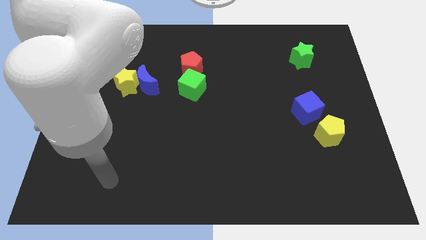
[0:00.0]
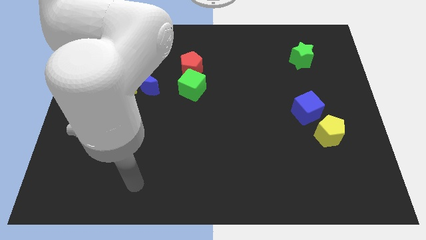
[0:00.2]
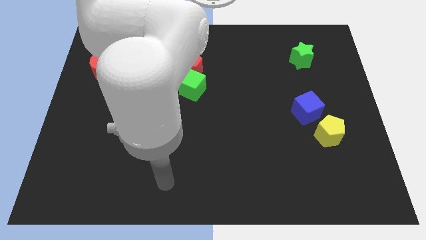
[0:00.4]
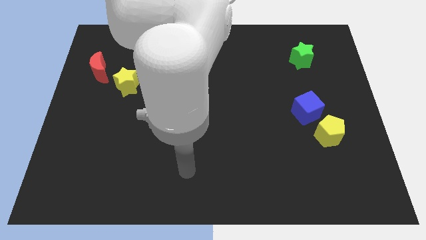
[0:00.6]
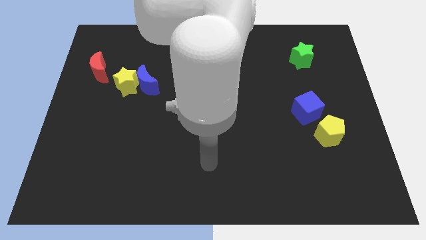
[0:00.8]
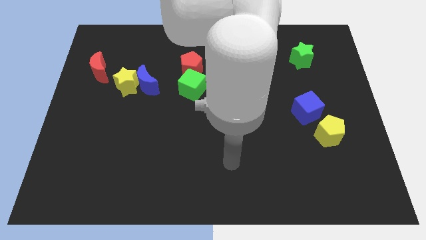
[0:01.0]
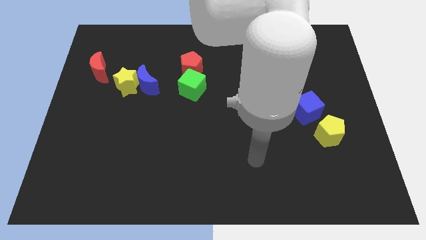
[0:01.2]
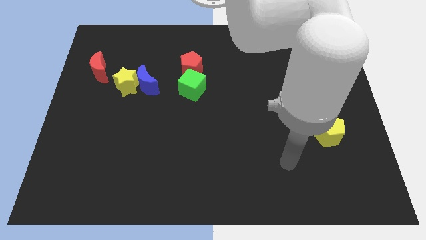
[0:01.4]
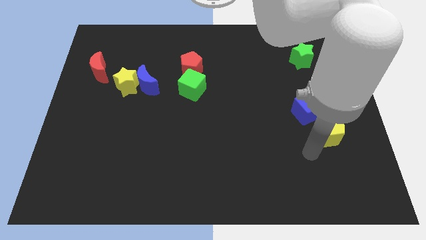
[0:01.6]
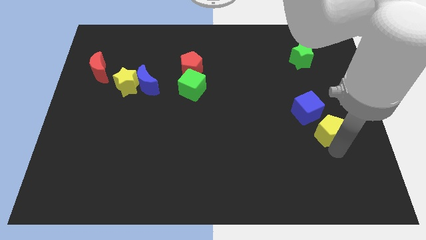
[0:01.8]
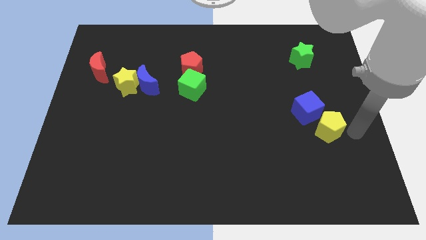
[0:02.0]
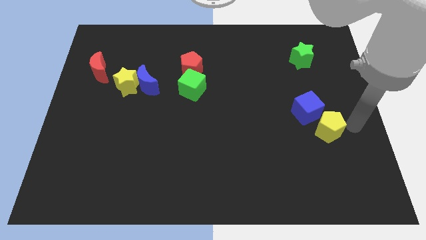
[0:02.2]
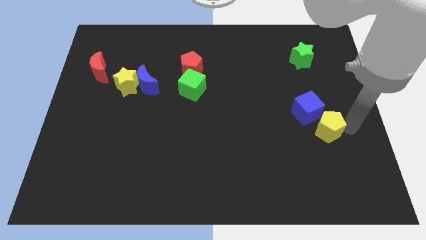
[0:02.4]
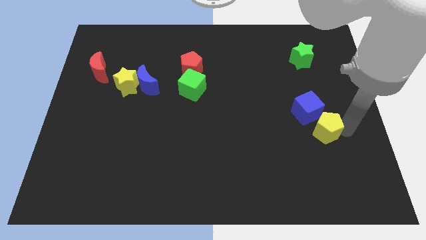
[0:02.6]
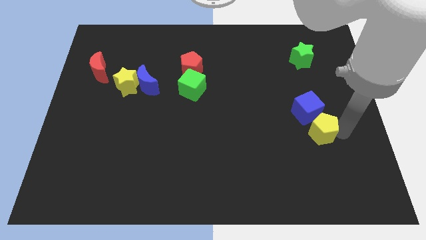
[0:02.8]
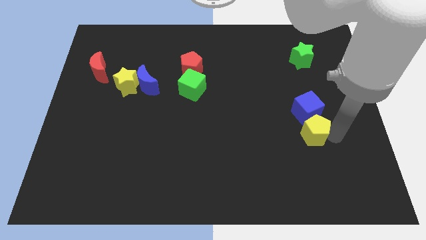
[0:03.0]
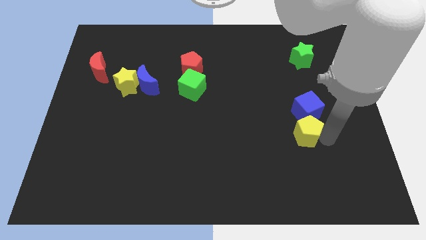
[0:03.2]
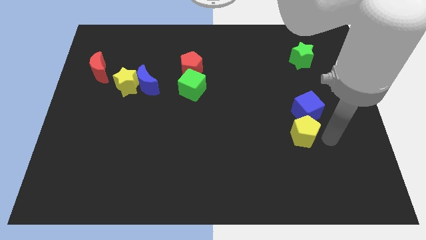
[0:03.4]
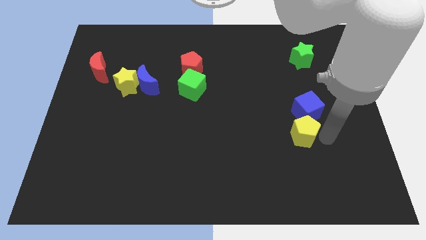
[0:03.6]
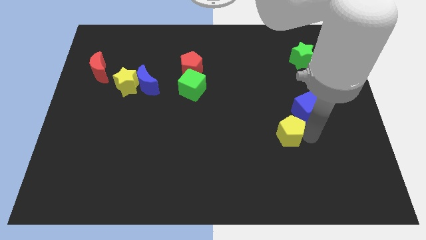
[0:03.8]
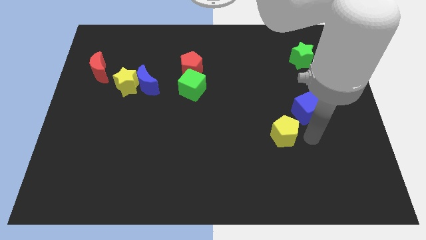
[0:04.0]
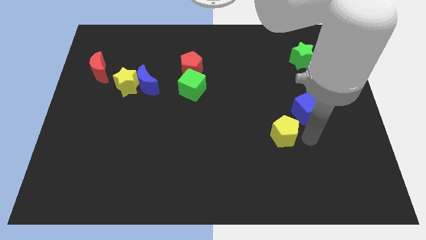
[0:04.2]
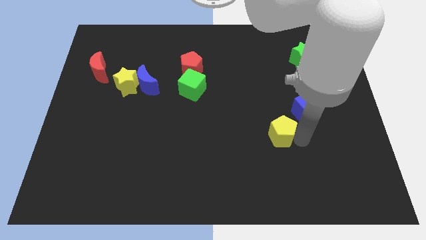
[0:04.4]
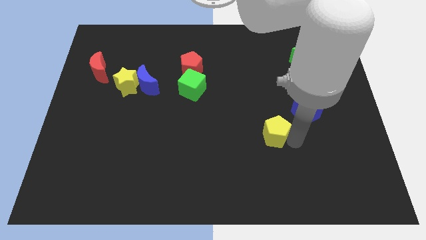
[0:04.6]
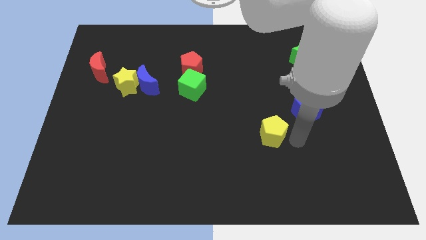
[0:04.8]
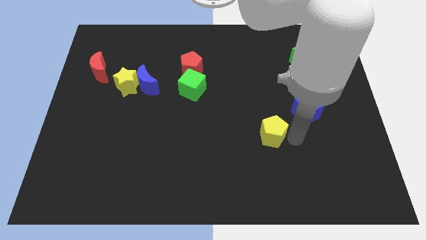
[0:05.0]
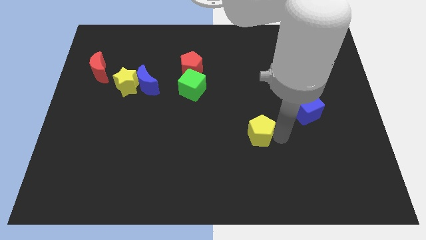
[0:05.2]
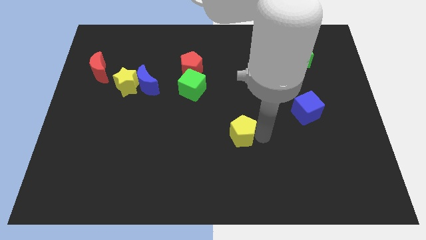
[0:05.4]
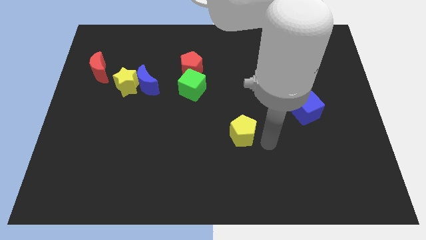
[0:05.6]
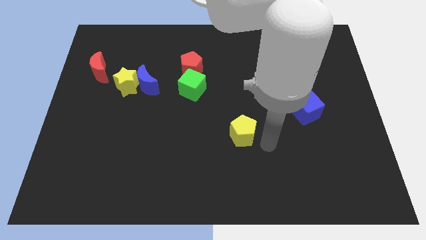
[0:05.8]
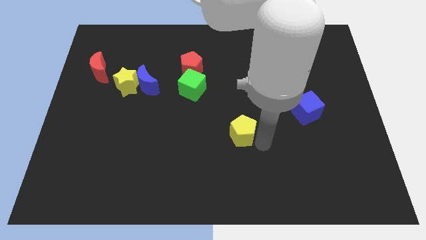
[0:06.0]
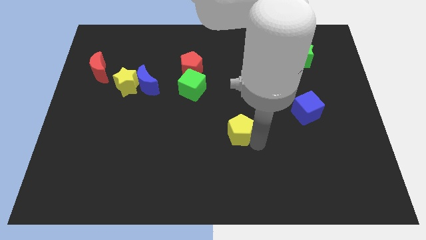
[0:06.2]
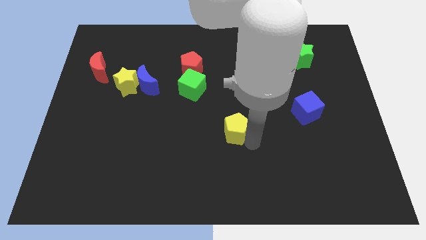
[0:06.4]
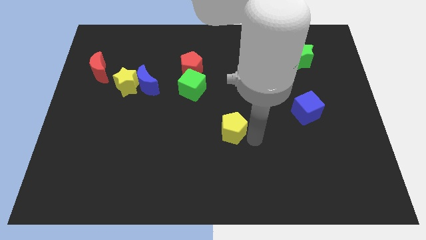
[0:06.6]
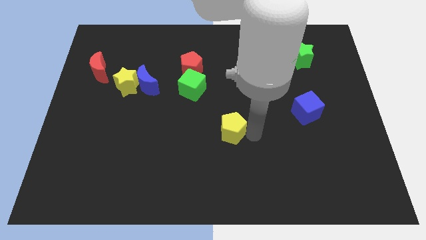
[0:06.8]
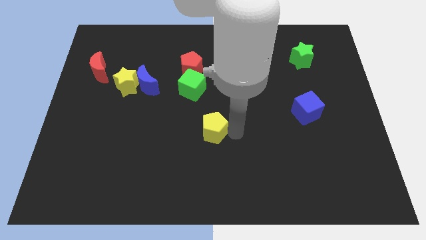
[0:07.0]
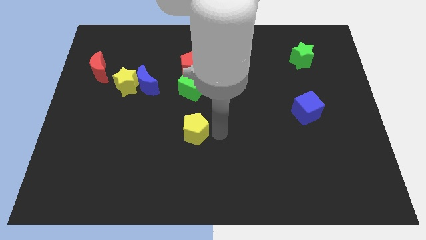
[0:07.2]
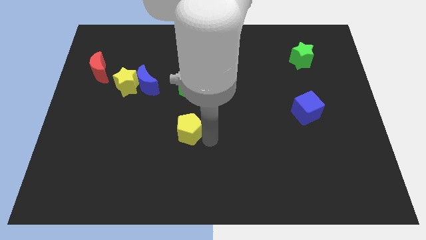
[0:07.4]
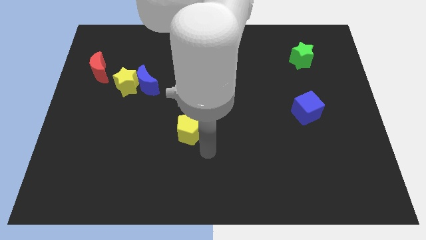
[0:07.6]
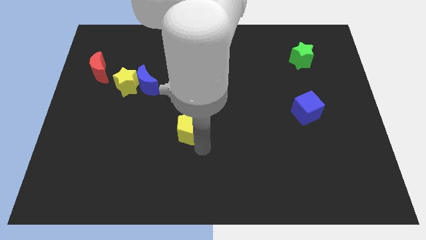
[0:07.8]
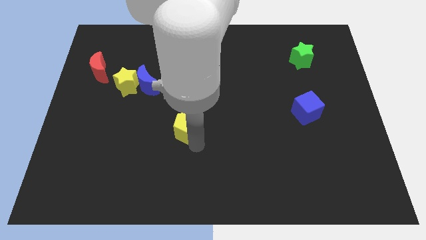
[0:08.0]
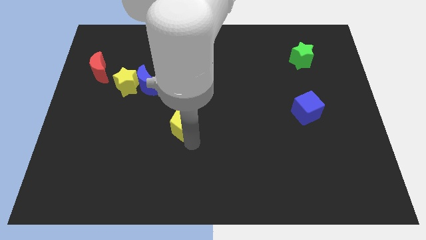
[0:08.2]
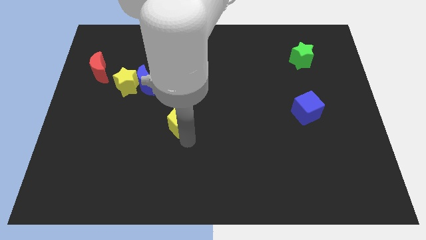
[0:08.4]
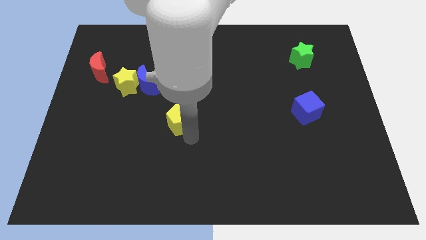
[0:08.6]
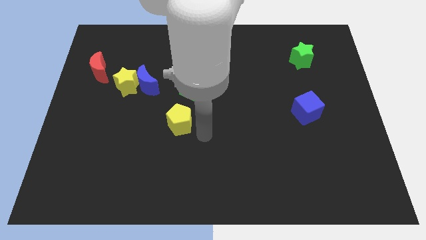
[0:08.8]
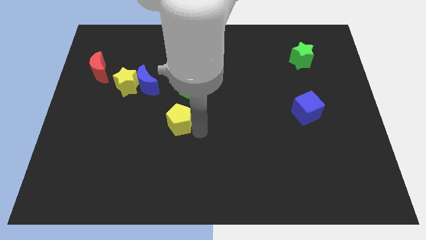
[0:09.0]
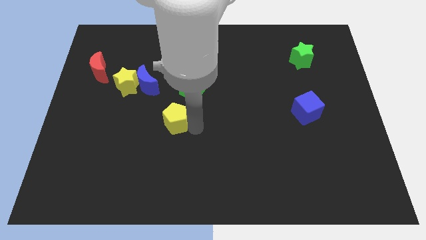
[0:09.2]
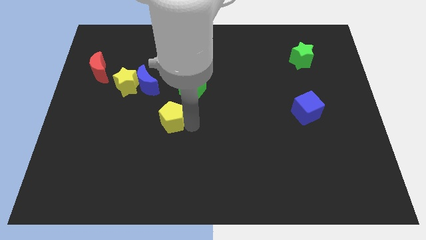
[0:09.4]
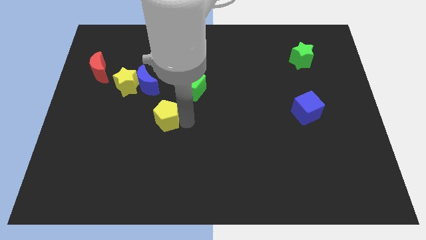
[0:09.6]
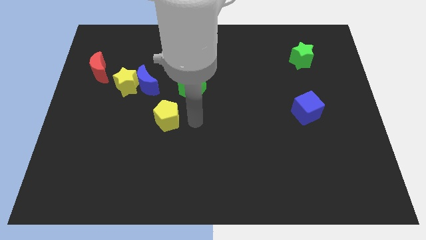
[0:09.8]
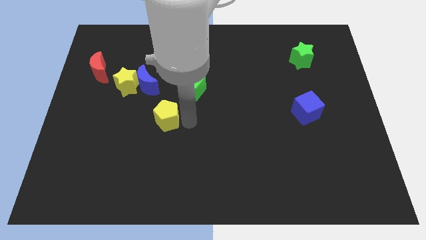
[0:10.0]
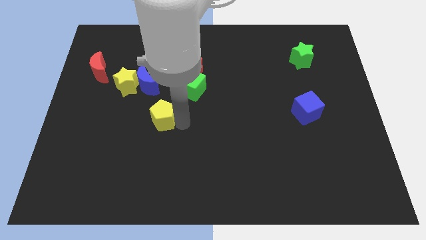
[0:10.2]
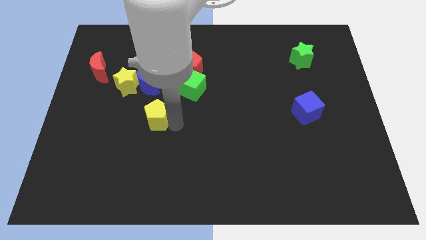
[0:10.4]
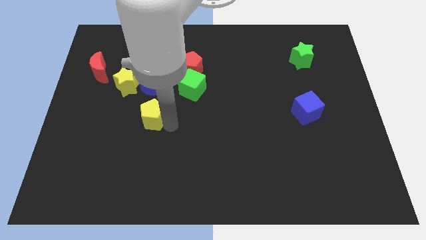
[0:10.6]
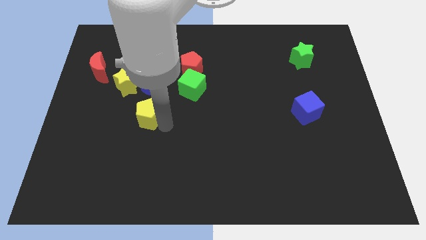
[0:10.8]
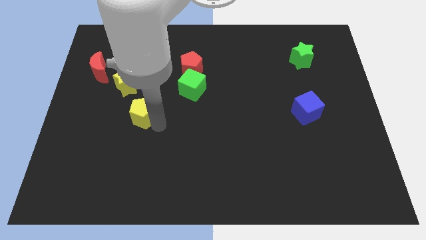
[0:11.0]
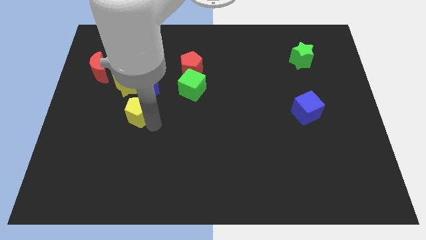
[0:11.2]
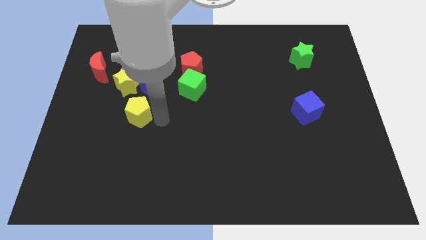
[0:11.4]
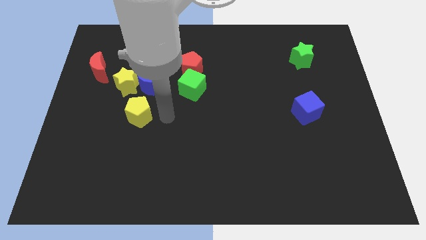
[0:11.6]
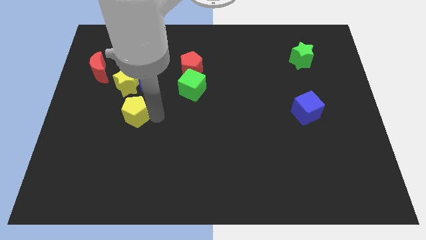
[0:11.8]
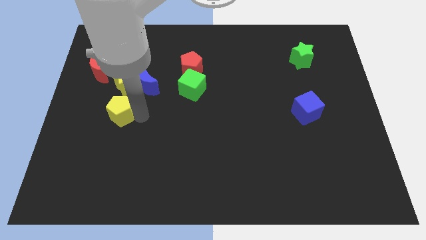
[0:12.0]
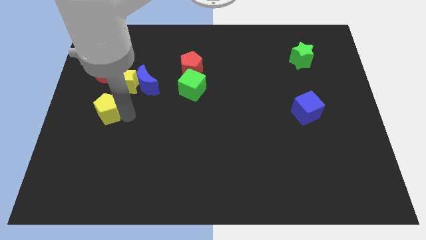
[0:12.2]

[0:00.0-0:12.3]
push the yellow pentagon to the bottom side of the red moon

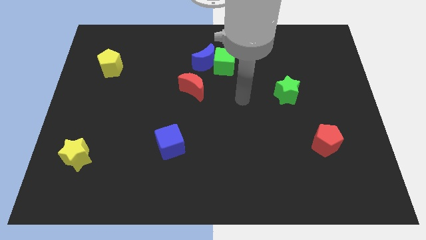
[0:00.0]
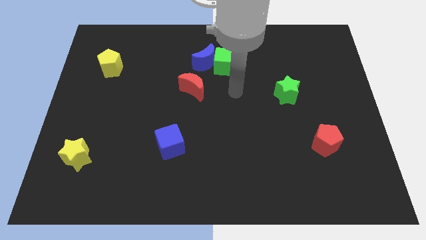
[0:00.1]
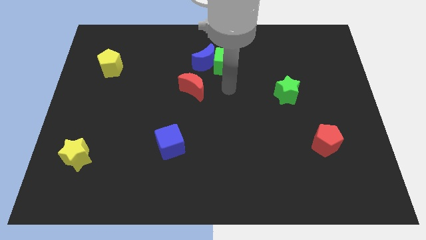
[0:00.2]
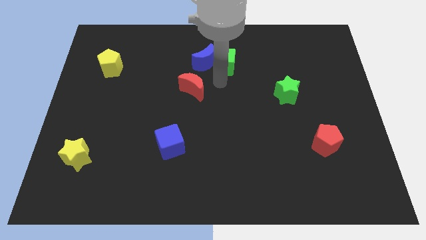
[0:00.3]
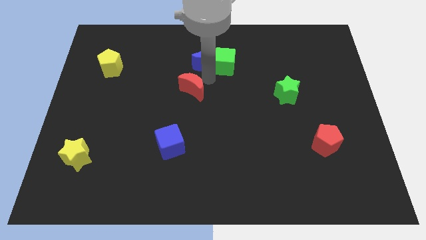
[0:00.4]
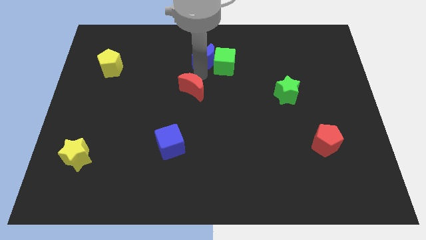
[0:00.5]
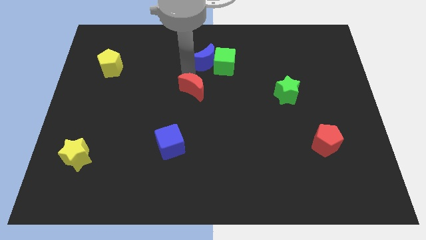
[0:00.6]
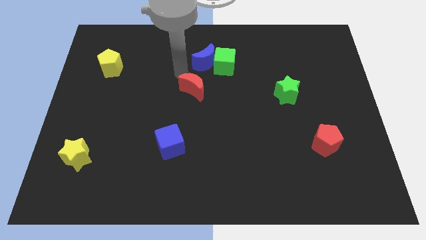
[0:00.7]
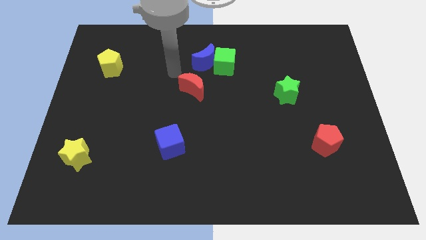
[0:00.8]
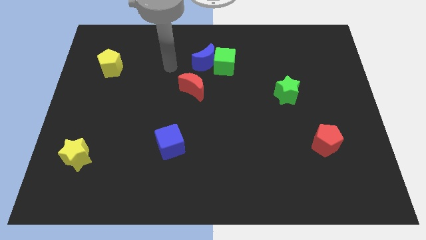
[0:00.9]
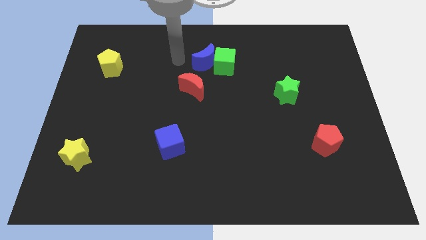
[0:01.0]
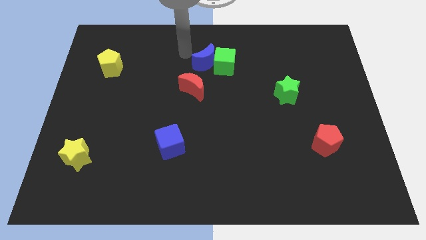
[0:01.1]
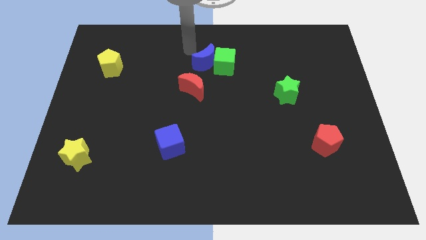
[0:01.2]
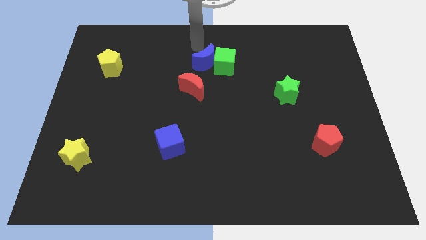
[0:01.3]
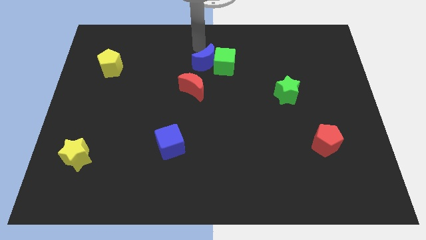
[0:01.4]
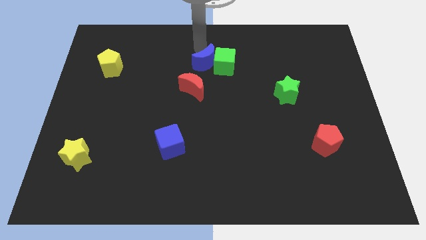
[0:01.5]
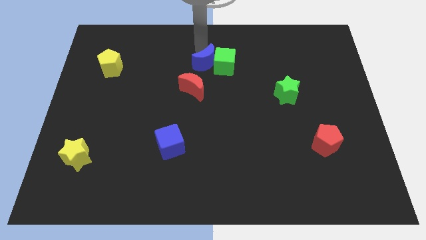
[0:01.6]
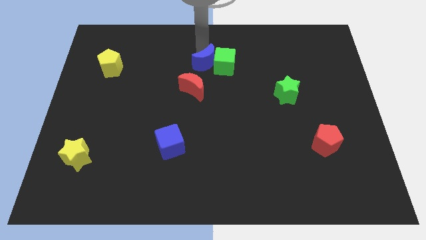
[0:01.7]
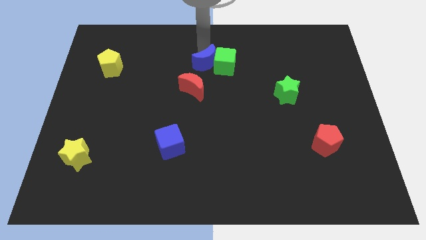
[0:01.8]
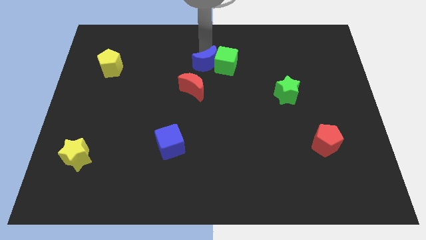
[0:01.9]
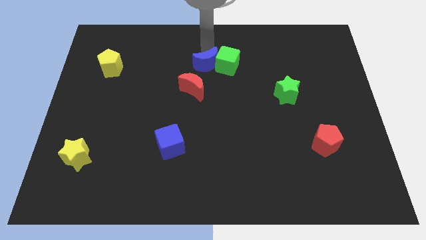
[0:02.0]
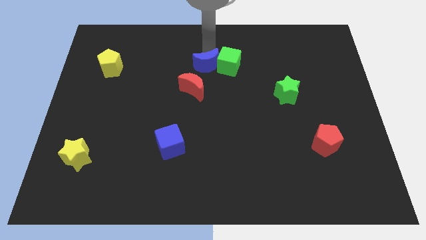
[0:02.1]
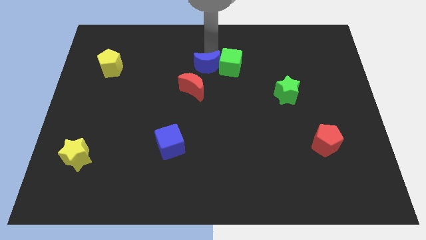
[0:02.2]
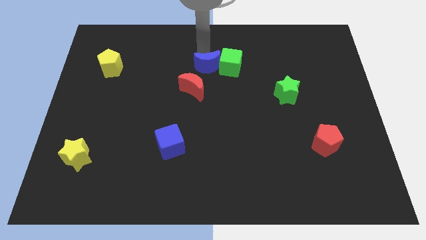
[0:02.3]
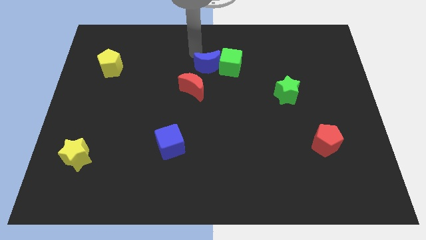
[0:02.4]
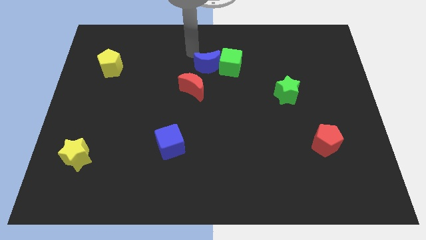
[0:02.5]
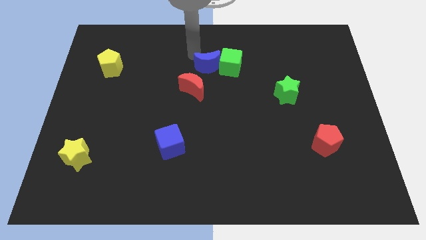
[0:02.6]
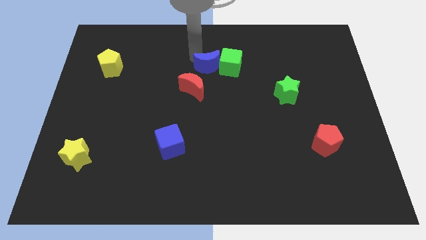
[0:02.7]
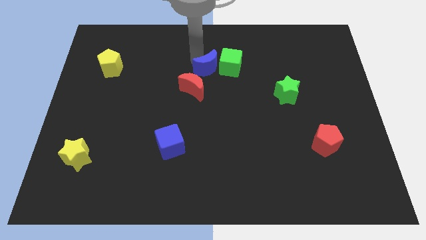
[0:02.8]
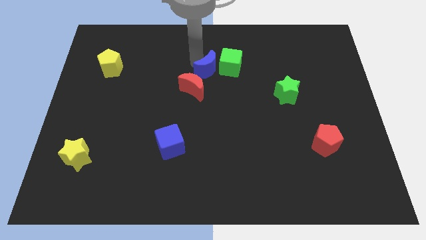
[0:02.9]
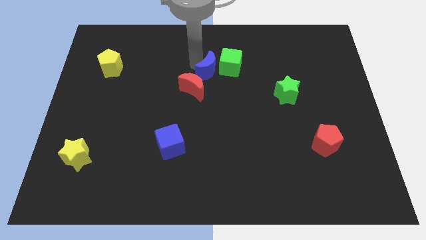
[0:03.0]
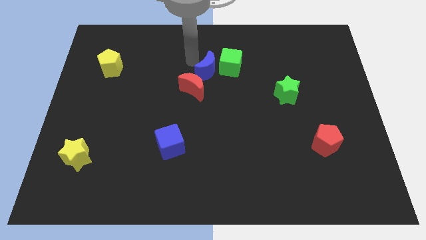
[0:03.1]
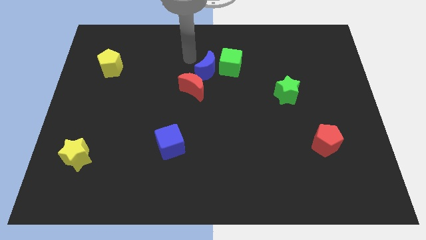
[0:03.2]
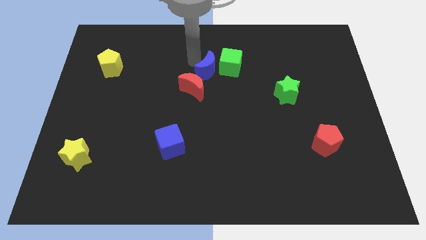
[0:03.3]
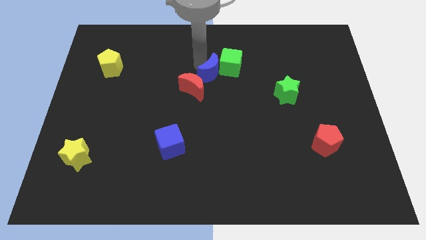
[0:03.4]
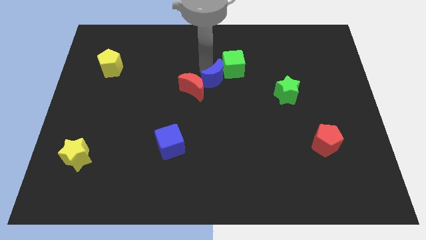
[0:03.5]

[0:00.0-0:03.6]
move the blue moon to the right of the red moon
